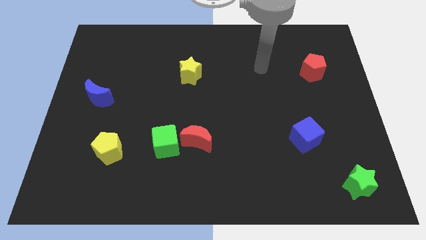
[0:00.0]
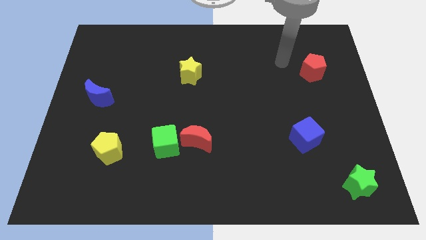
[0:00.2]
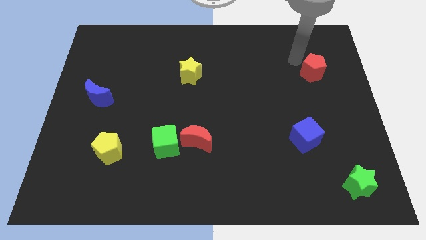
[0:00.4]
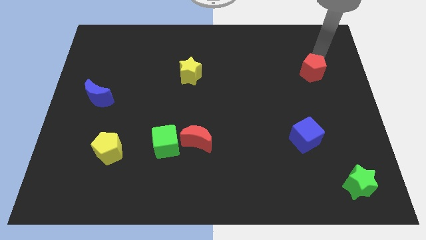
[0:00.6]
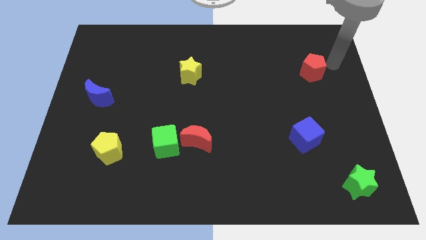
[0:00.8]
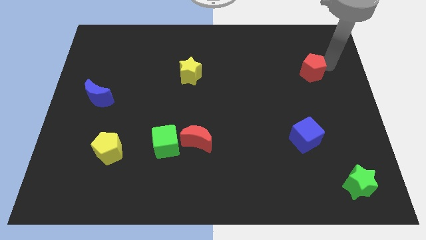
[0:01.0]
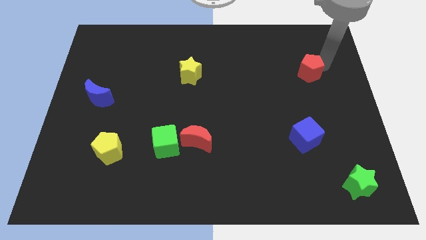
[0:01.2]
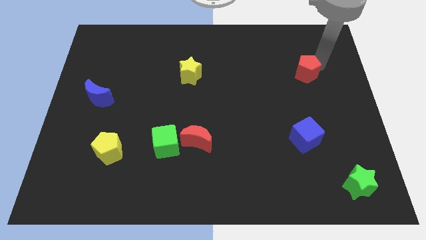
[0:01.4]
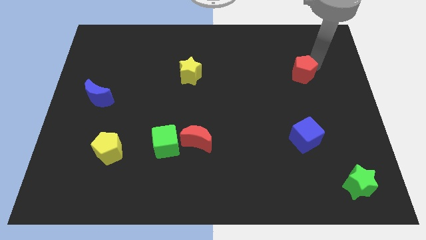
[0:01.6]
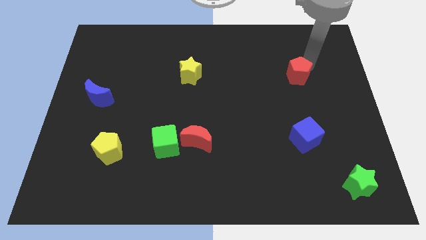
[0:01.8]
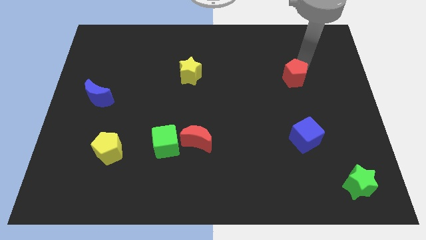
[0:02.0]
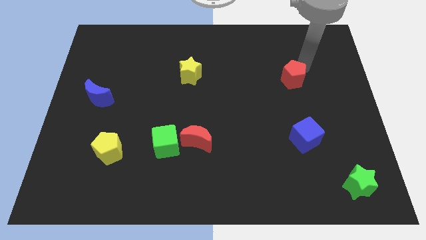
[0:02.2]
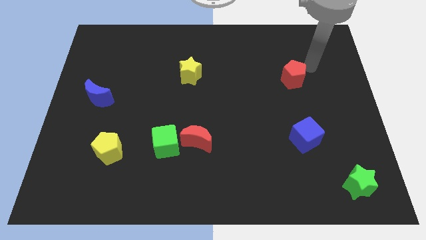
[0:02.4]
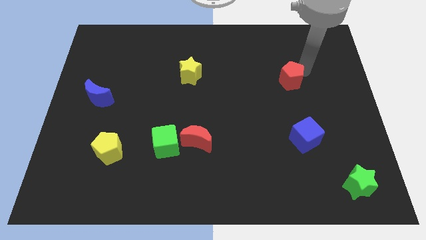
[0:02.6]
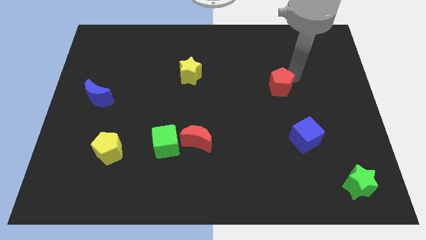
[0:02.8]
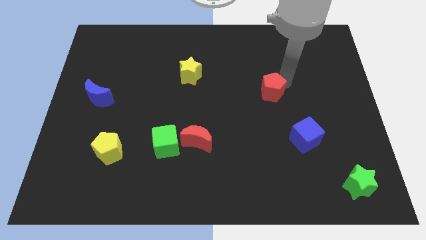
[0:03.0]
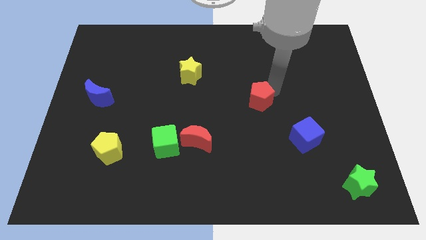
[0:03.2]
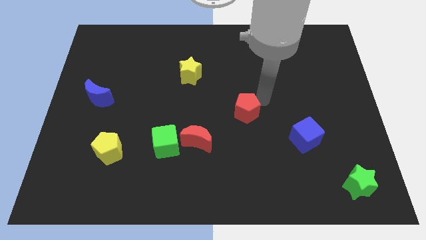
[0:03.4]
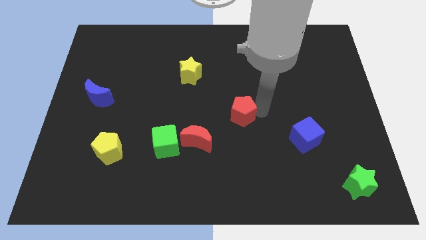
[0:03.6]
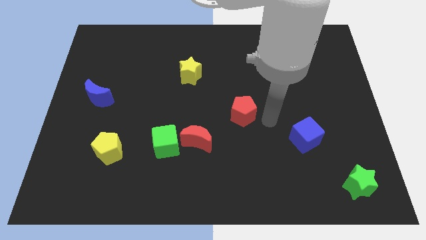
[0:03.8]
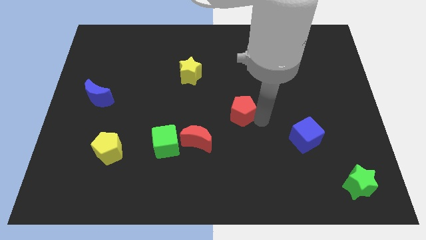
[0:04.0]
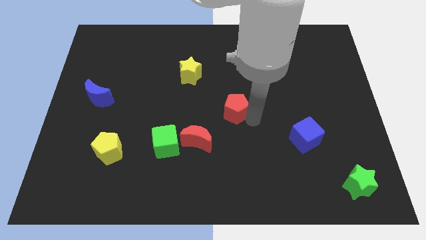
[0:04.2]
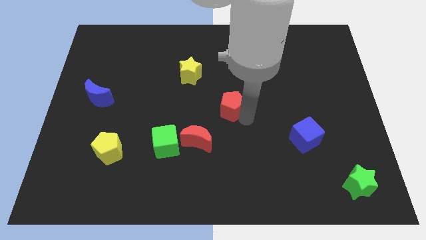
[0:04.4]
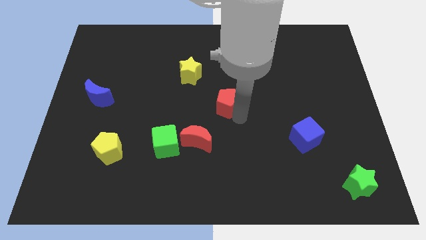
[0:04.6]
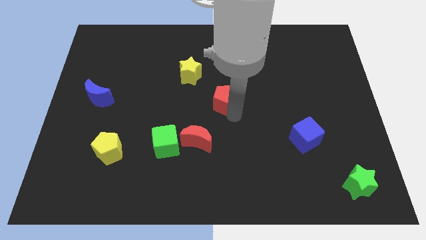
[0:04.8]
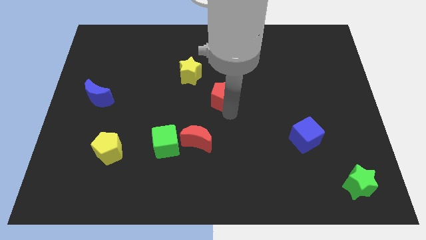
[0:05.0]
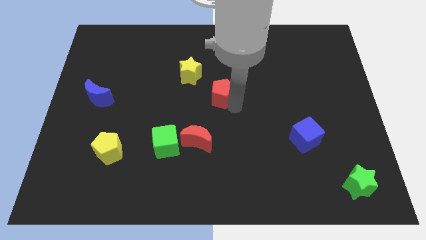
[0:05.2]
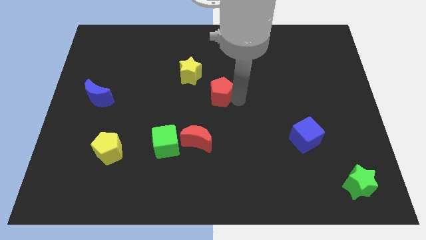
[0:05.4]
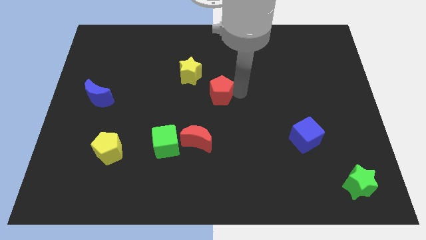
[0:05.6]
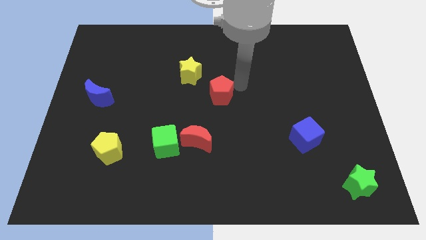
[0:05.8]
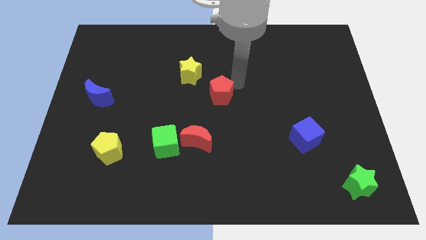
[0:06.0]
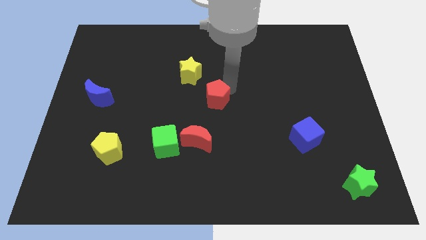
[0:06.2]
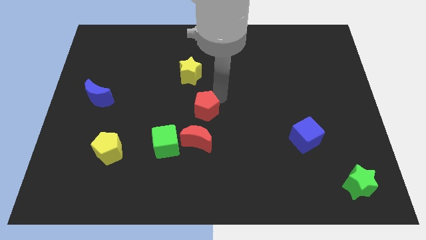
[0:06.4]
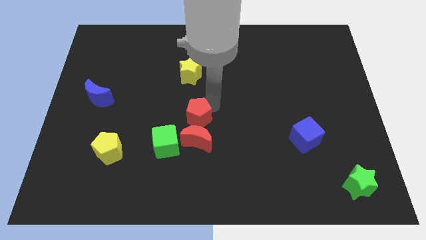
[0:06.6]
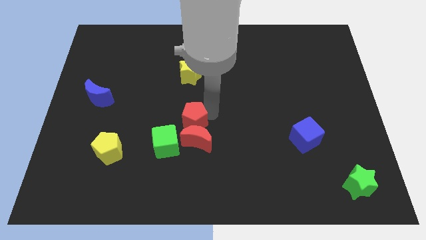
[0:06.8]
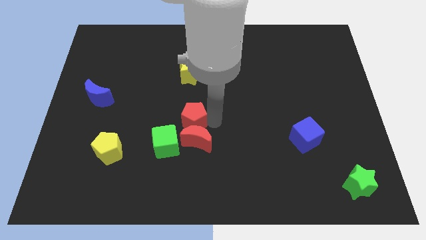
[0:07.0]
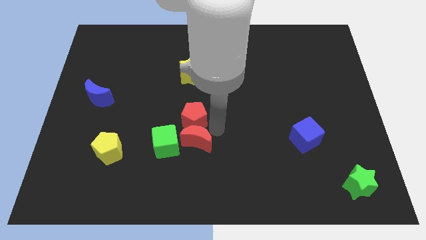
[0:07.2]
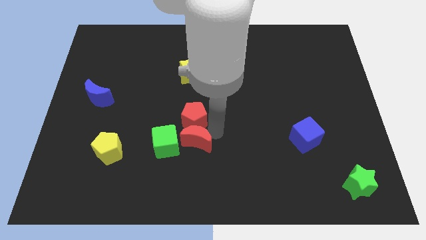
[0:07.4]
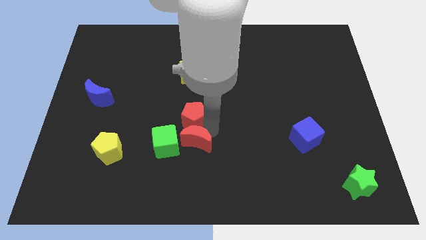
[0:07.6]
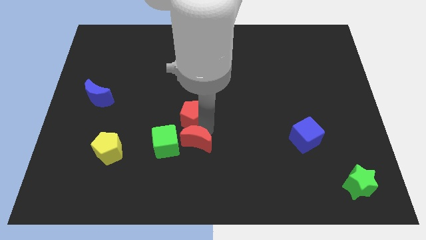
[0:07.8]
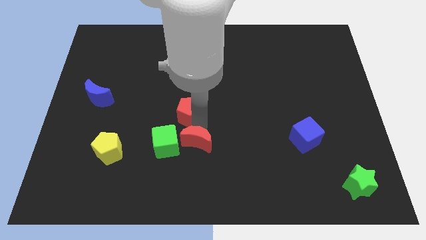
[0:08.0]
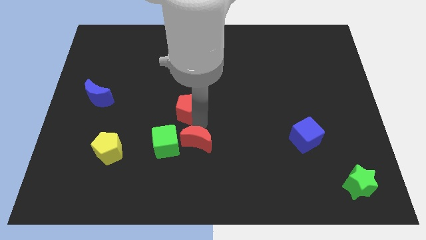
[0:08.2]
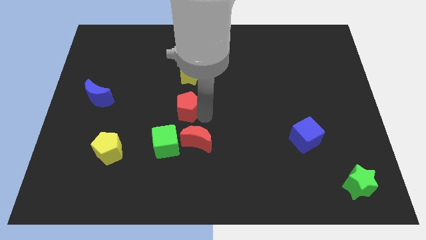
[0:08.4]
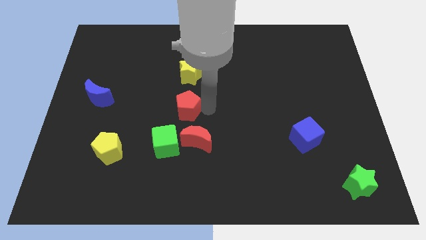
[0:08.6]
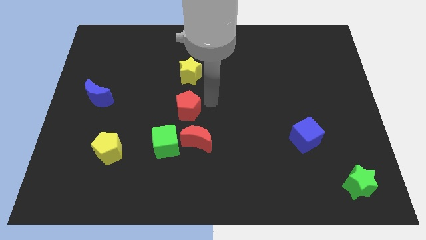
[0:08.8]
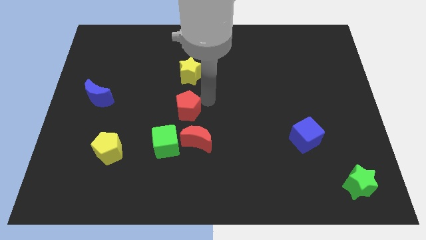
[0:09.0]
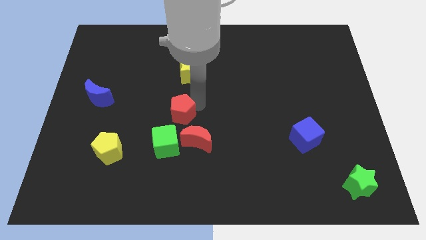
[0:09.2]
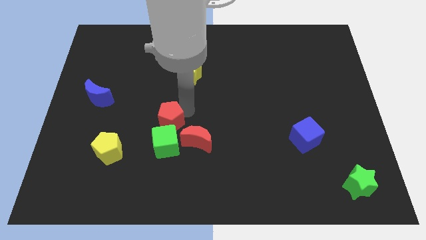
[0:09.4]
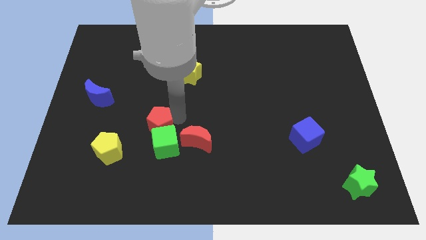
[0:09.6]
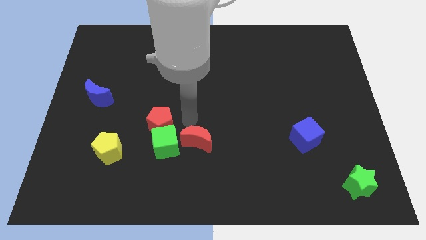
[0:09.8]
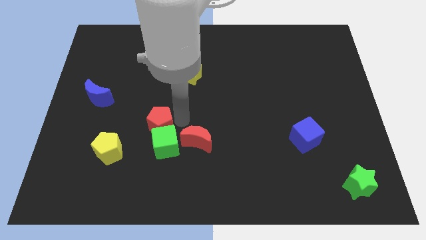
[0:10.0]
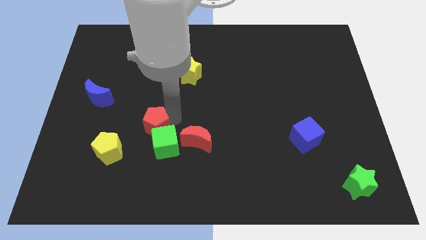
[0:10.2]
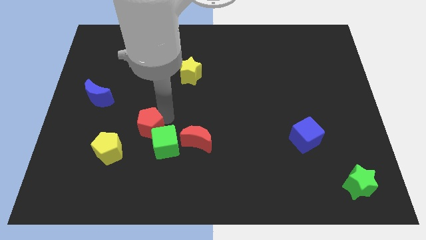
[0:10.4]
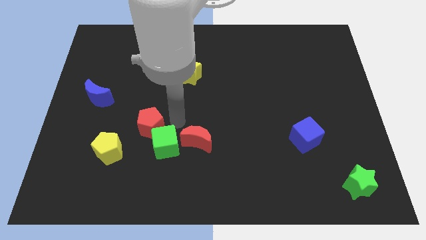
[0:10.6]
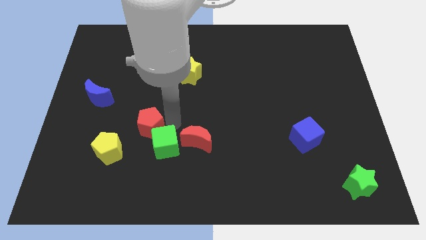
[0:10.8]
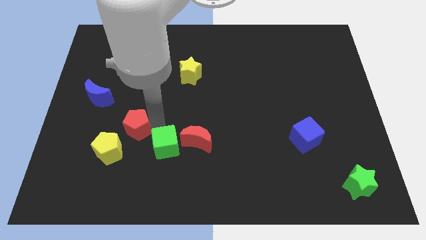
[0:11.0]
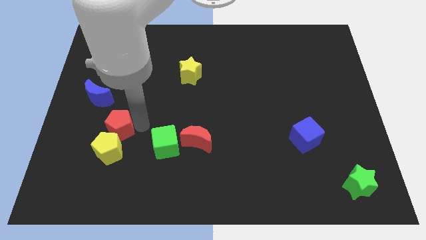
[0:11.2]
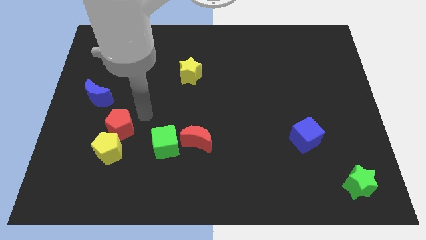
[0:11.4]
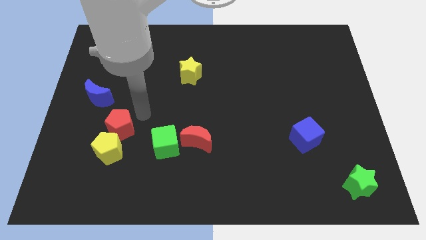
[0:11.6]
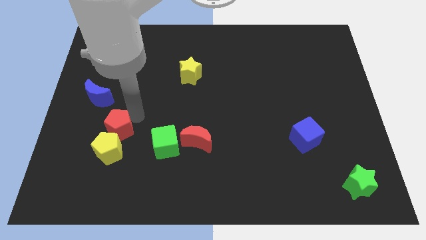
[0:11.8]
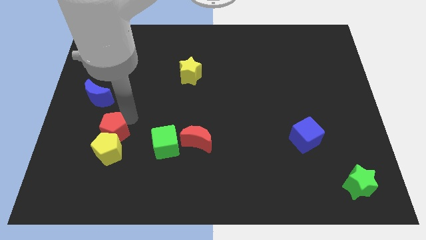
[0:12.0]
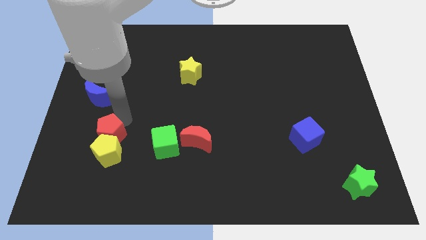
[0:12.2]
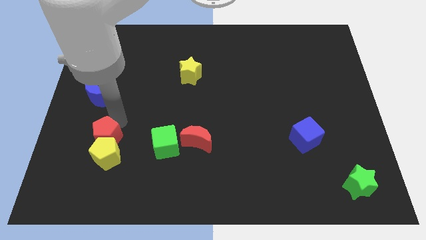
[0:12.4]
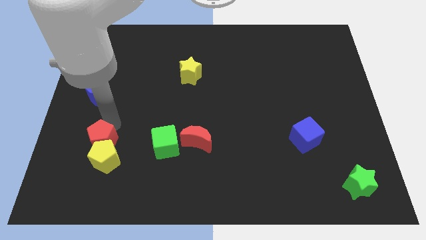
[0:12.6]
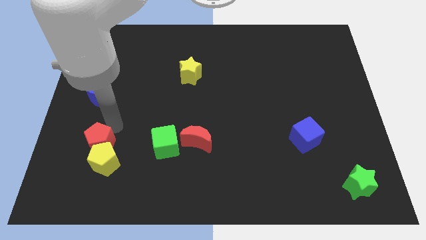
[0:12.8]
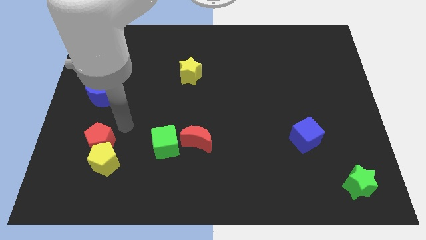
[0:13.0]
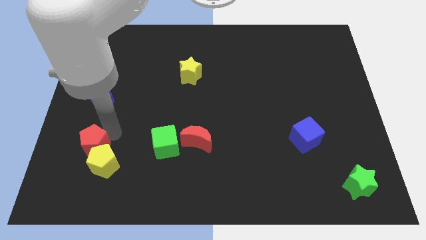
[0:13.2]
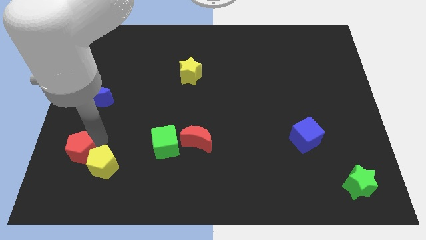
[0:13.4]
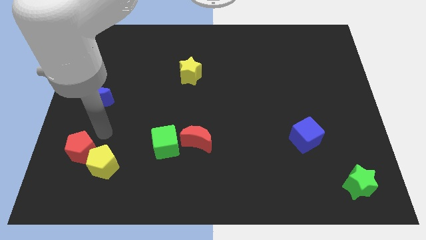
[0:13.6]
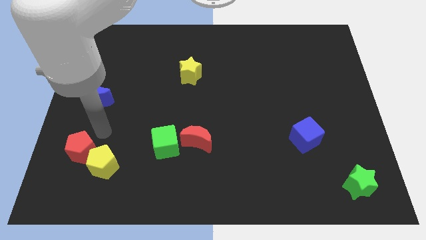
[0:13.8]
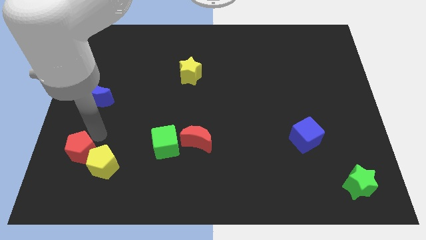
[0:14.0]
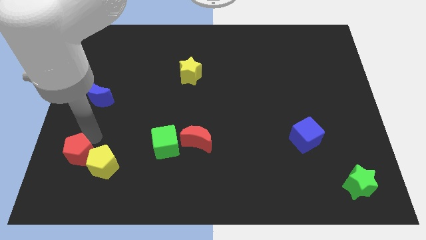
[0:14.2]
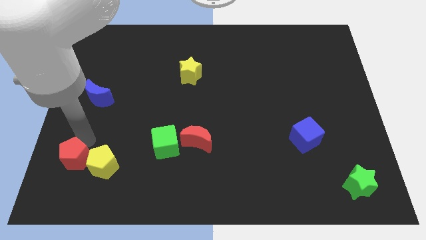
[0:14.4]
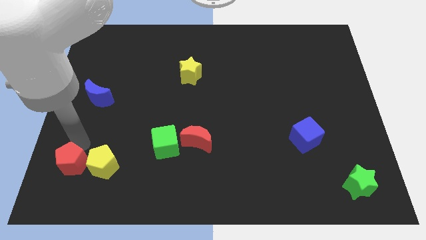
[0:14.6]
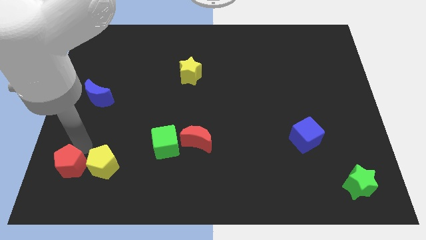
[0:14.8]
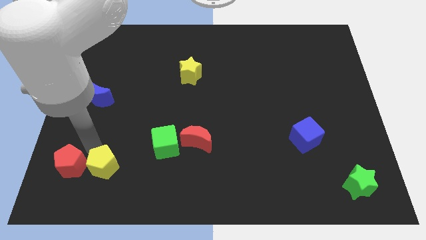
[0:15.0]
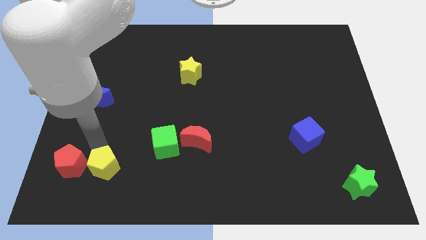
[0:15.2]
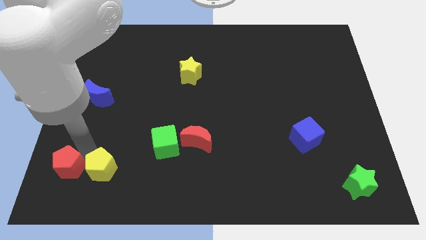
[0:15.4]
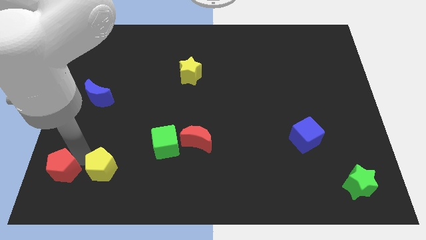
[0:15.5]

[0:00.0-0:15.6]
put the red pentagon to the bottom left corner
